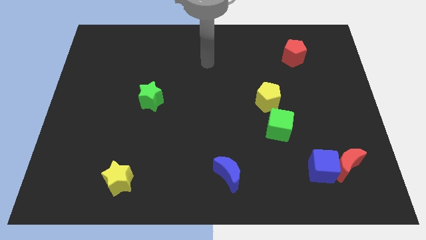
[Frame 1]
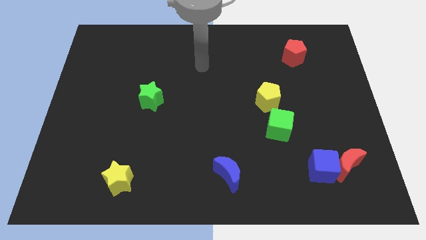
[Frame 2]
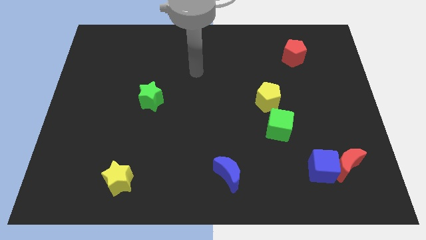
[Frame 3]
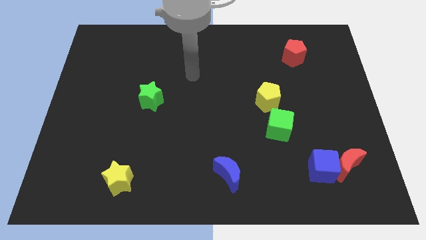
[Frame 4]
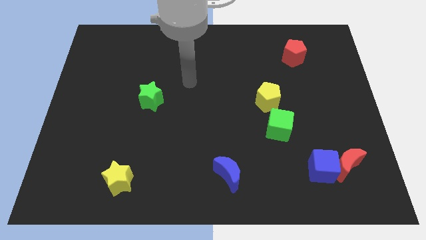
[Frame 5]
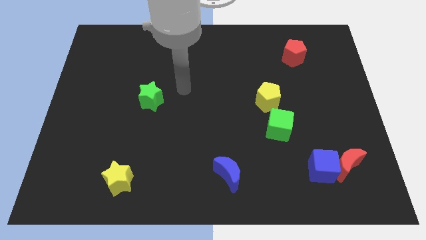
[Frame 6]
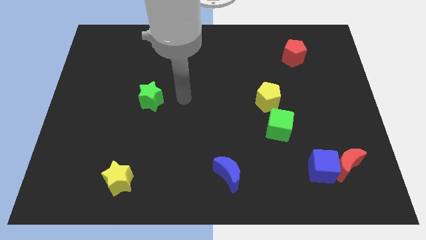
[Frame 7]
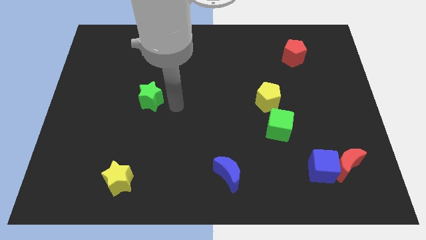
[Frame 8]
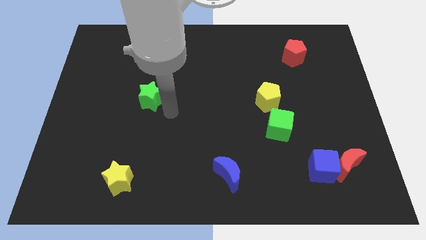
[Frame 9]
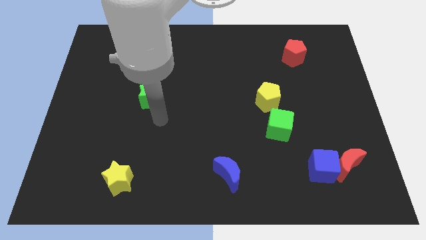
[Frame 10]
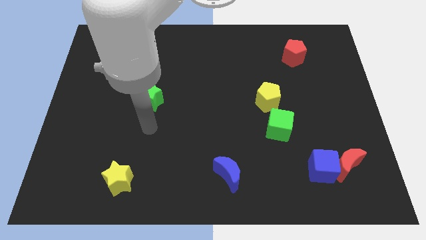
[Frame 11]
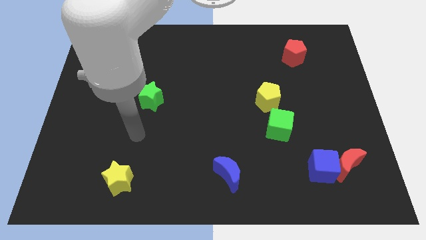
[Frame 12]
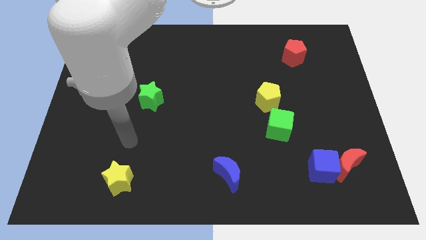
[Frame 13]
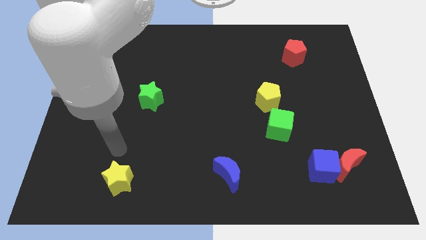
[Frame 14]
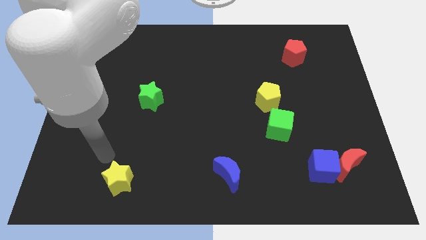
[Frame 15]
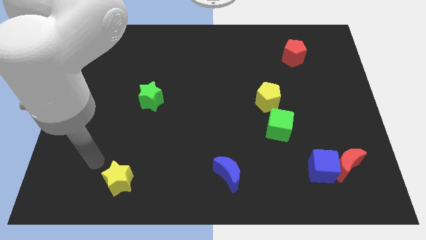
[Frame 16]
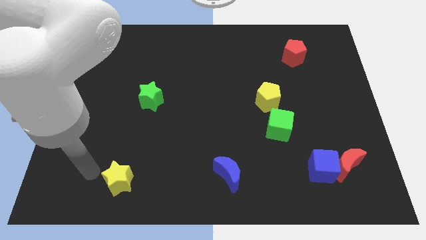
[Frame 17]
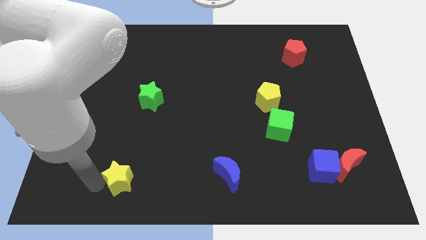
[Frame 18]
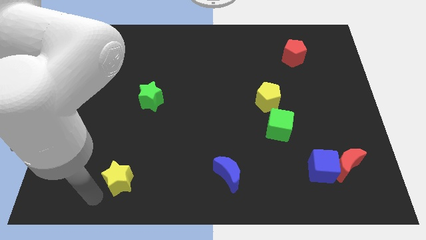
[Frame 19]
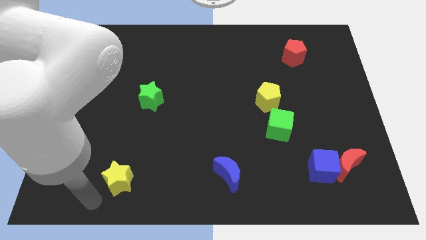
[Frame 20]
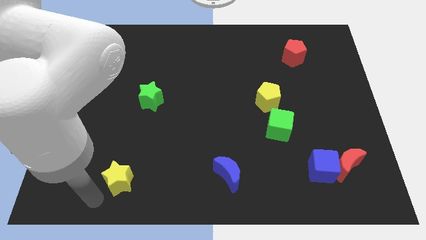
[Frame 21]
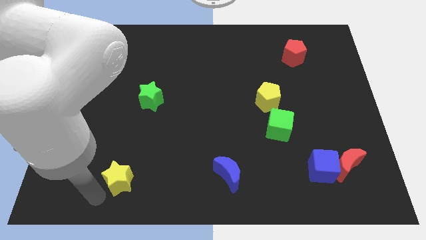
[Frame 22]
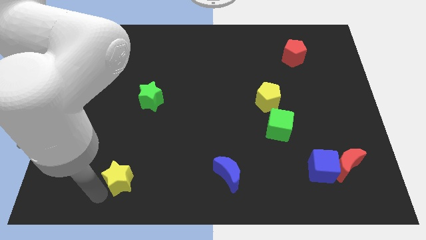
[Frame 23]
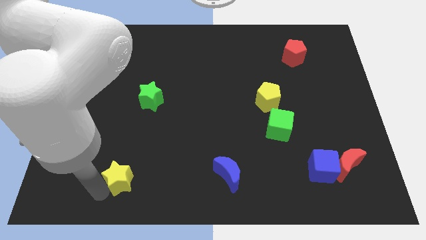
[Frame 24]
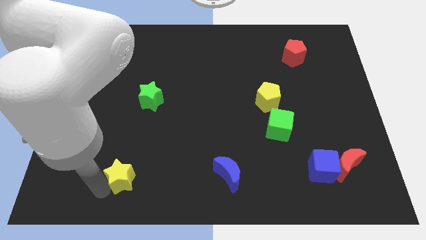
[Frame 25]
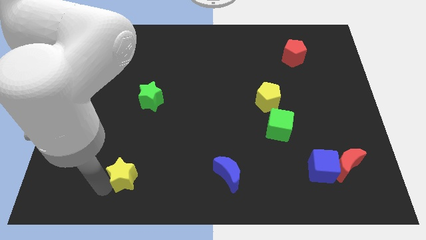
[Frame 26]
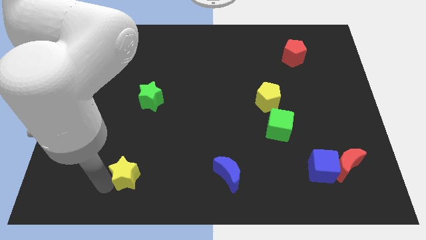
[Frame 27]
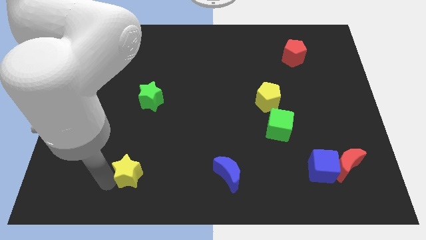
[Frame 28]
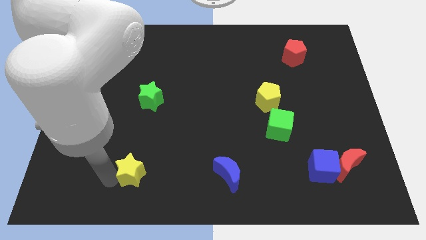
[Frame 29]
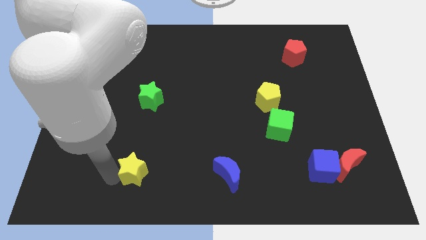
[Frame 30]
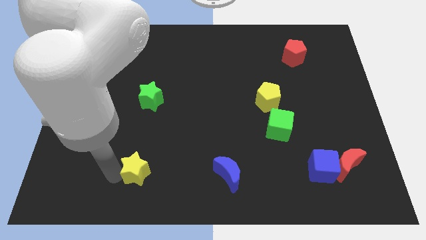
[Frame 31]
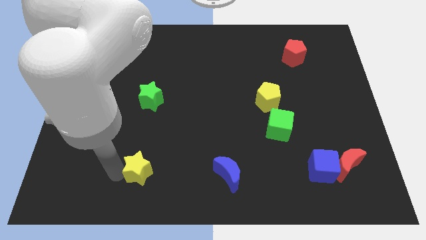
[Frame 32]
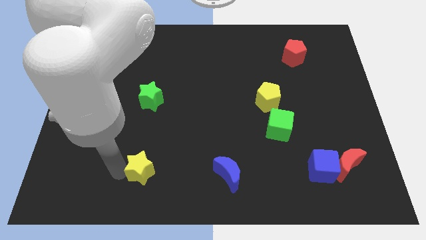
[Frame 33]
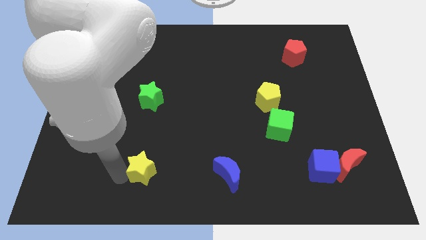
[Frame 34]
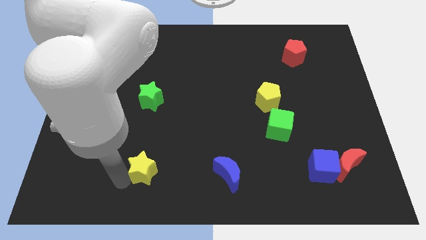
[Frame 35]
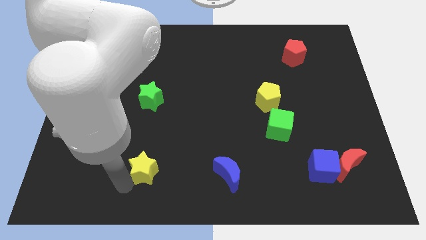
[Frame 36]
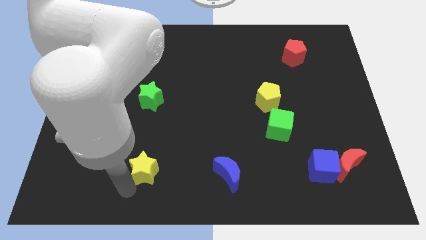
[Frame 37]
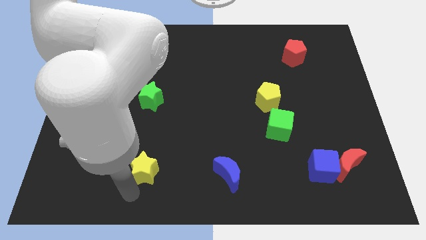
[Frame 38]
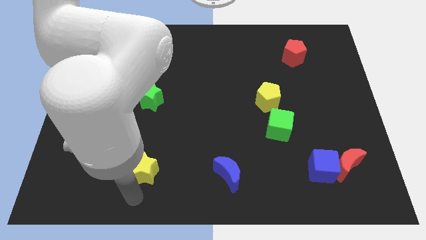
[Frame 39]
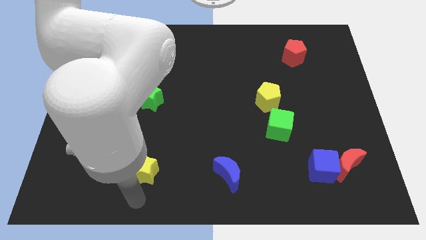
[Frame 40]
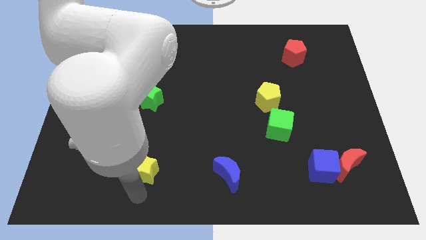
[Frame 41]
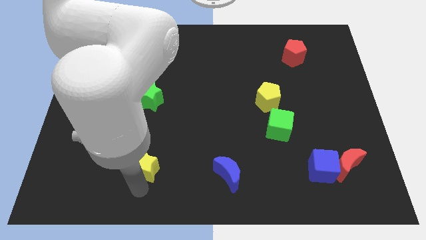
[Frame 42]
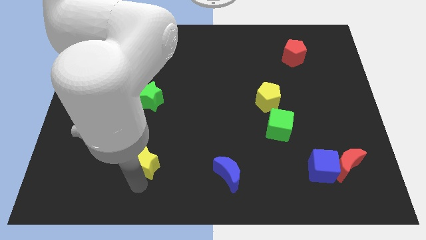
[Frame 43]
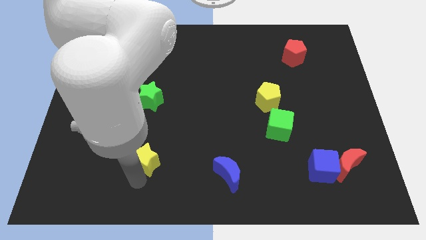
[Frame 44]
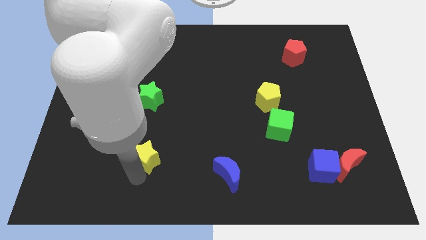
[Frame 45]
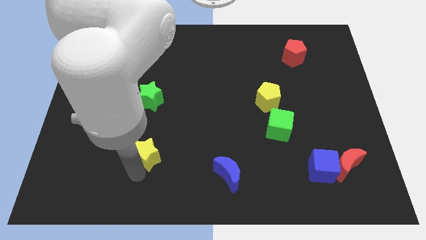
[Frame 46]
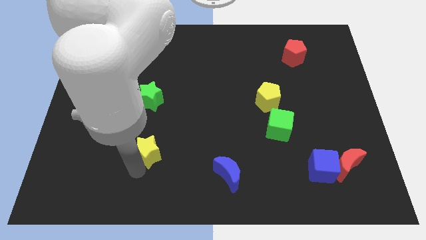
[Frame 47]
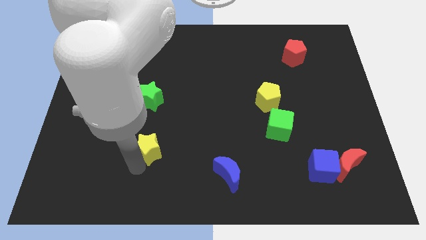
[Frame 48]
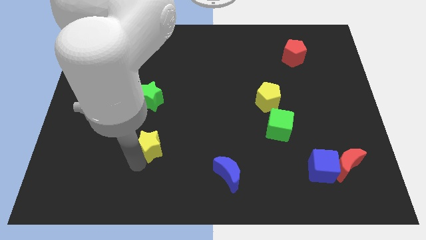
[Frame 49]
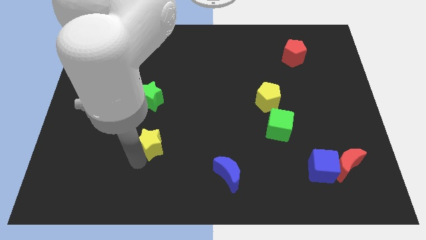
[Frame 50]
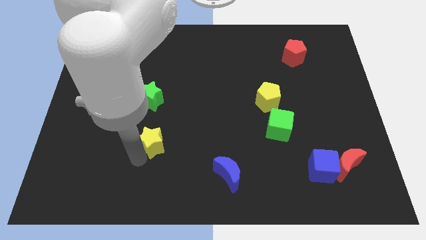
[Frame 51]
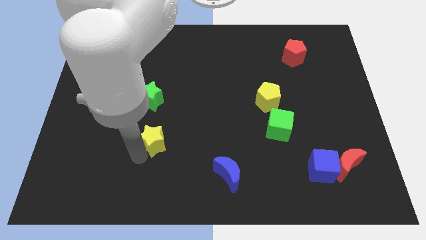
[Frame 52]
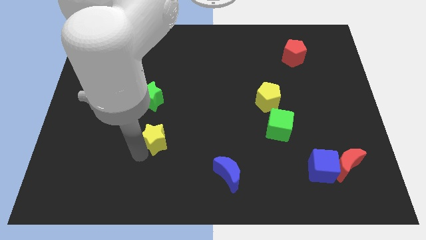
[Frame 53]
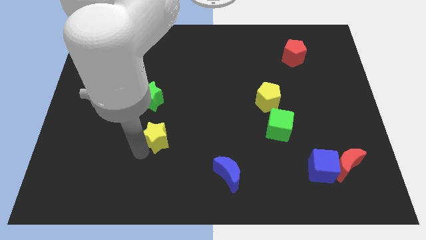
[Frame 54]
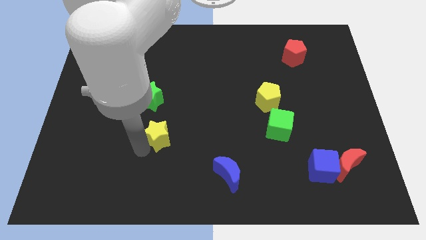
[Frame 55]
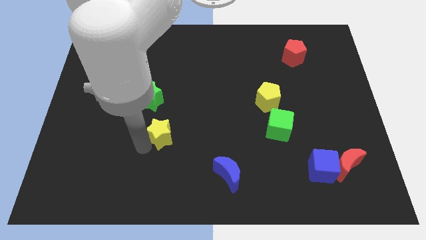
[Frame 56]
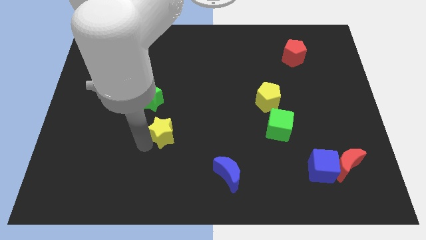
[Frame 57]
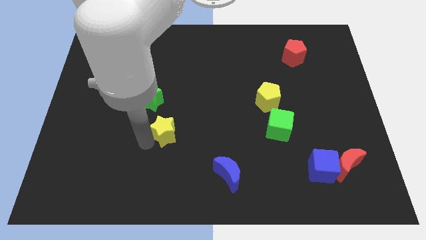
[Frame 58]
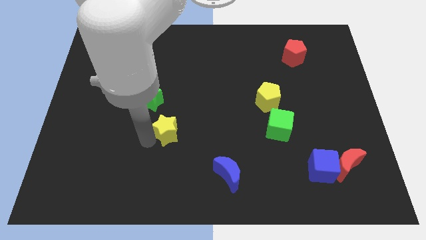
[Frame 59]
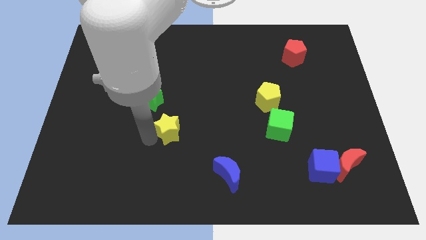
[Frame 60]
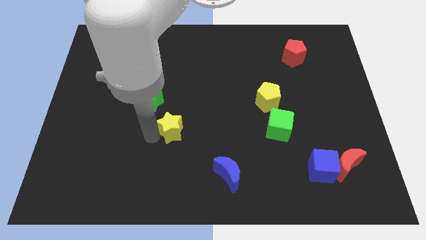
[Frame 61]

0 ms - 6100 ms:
slide the yellow star to the center of the board

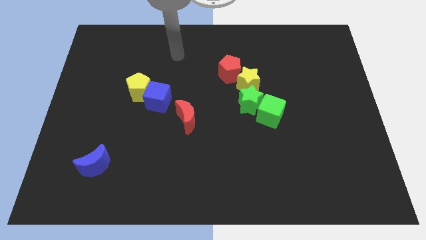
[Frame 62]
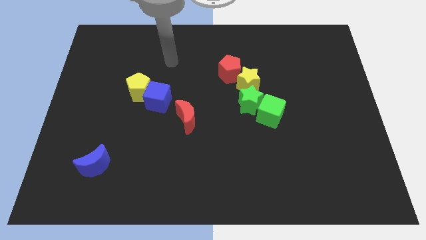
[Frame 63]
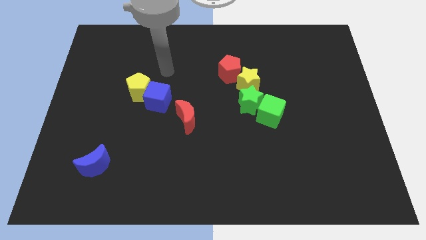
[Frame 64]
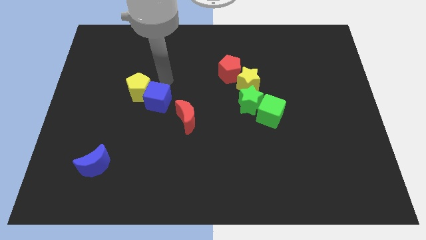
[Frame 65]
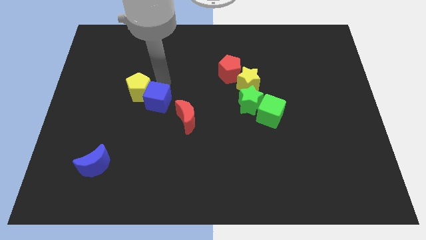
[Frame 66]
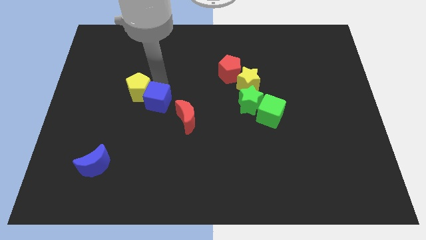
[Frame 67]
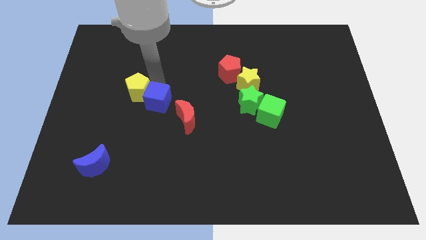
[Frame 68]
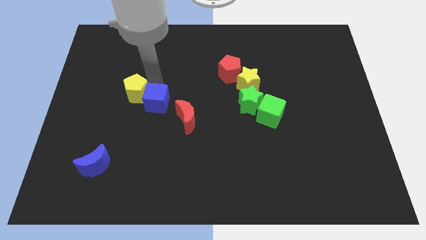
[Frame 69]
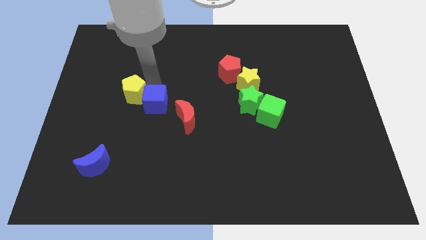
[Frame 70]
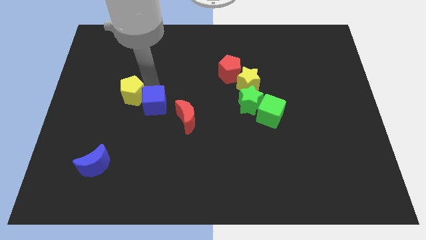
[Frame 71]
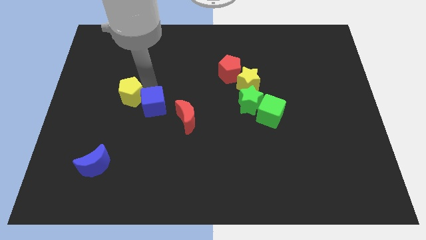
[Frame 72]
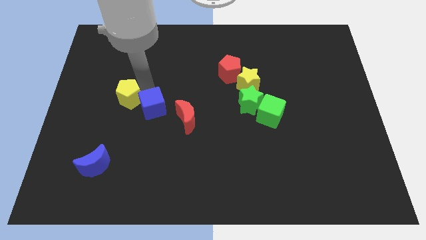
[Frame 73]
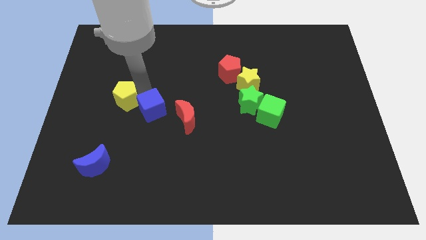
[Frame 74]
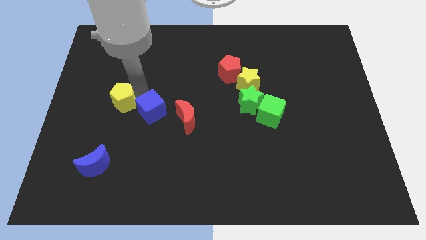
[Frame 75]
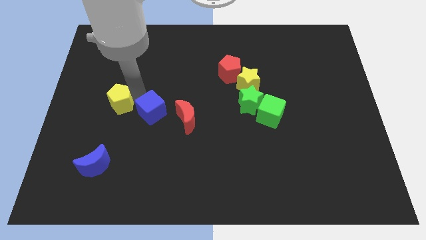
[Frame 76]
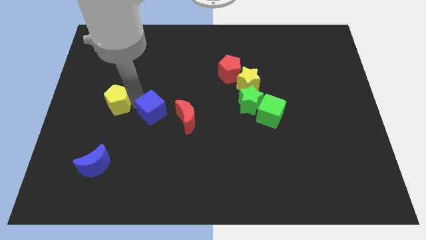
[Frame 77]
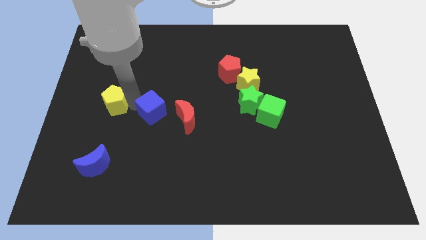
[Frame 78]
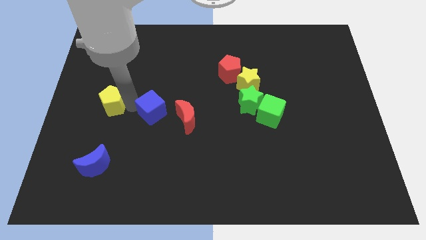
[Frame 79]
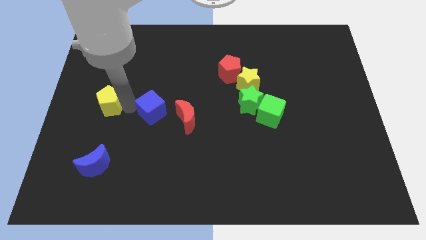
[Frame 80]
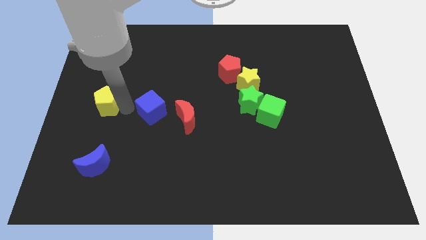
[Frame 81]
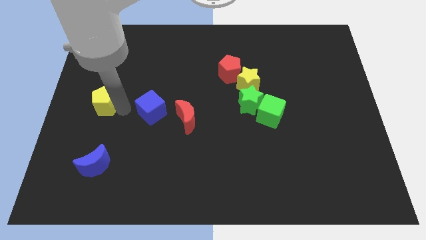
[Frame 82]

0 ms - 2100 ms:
move the yellow pentagon to the left side
